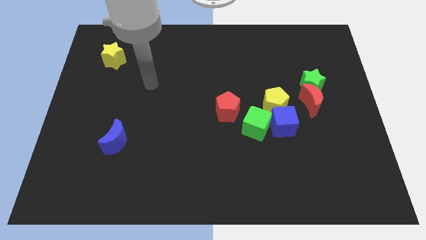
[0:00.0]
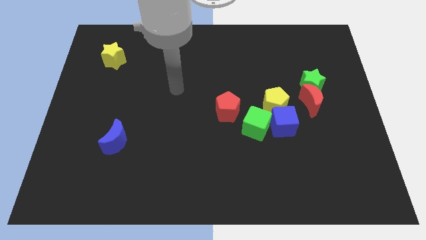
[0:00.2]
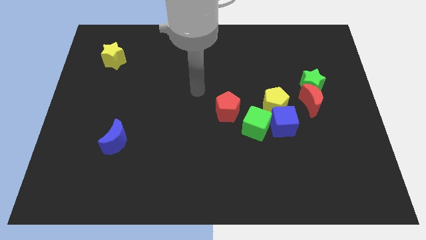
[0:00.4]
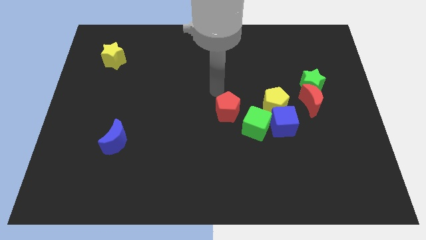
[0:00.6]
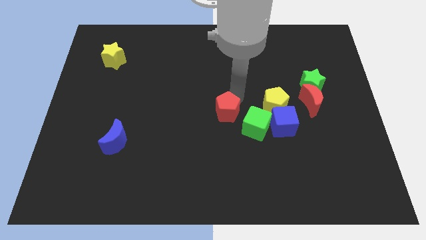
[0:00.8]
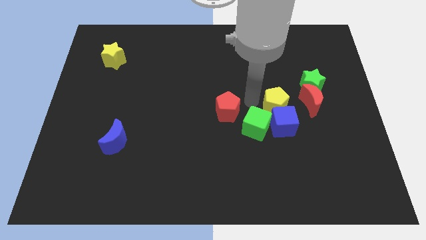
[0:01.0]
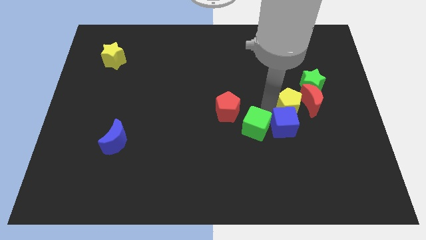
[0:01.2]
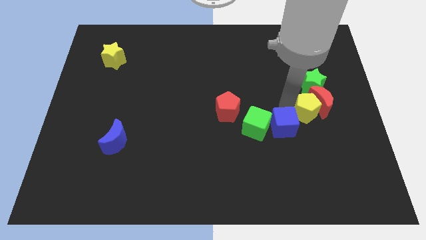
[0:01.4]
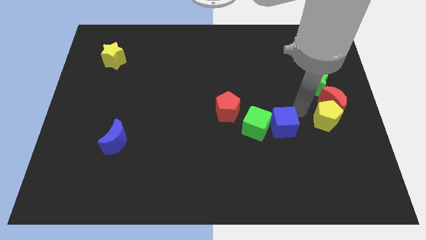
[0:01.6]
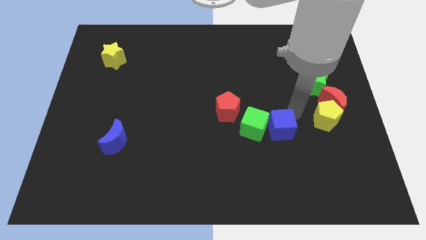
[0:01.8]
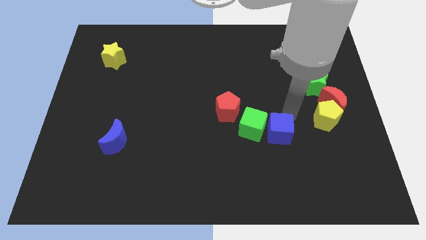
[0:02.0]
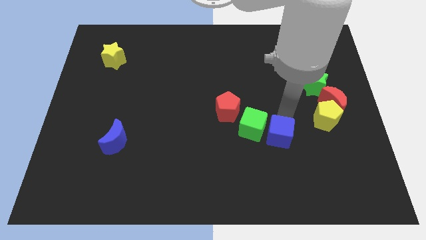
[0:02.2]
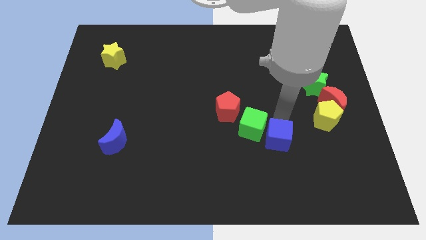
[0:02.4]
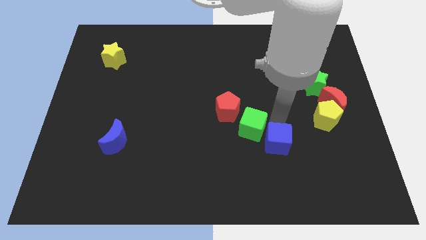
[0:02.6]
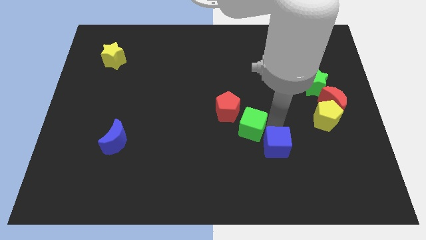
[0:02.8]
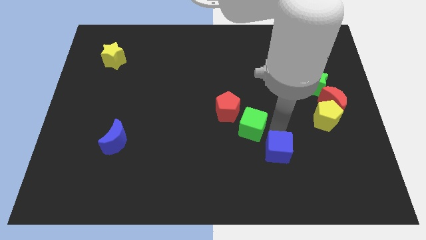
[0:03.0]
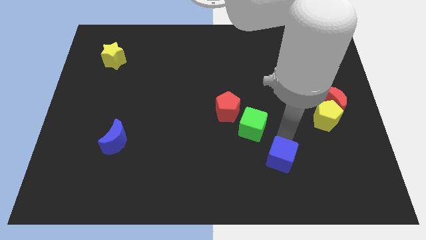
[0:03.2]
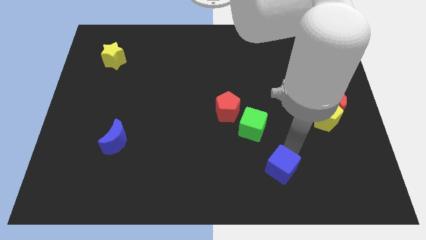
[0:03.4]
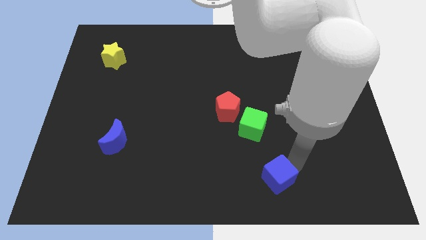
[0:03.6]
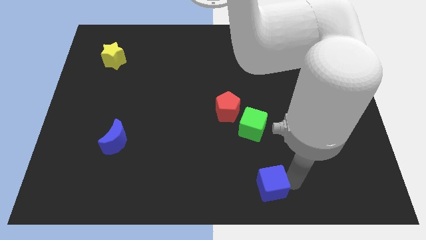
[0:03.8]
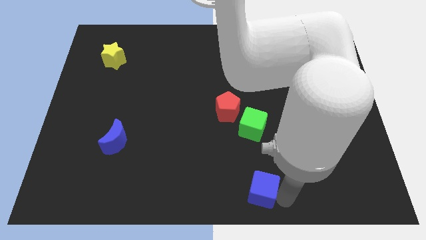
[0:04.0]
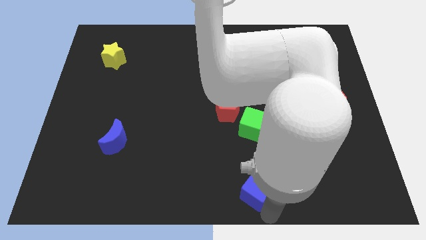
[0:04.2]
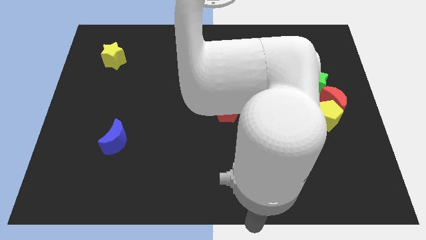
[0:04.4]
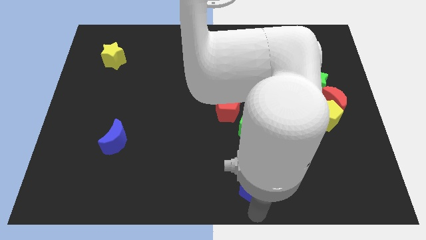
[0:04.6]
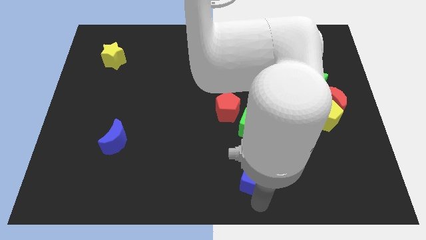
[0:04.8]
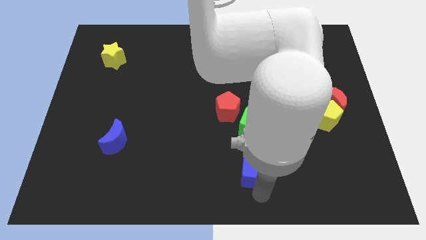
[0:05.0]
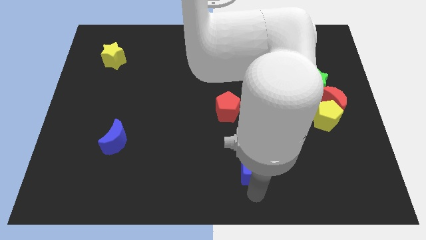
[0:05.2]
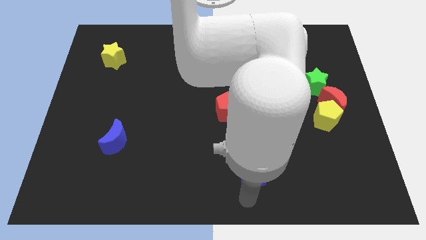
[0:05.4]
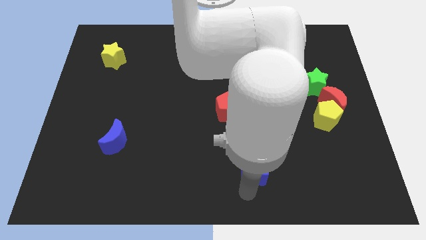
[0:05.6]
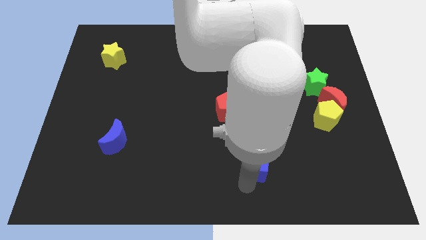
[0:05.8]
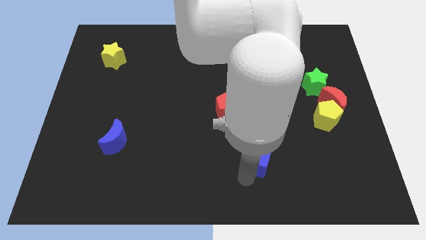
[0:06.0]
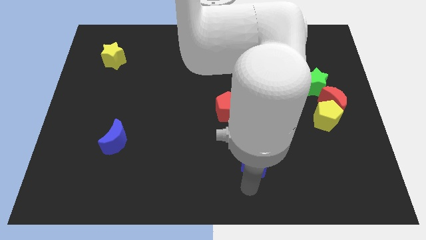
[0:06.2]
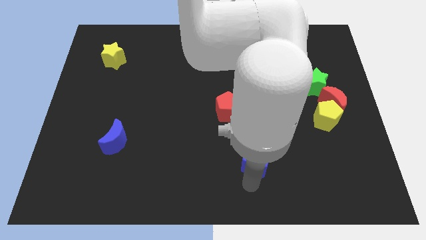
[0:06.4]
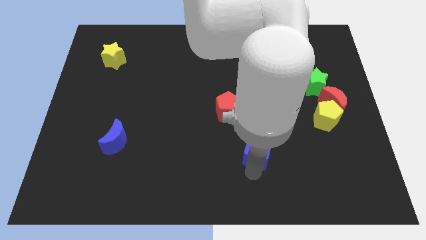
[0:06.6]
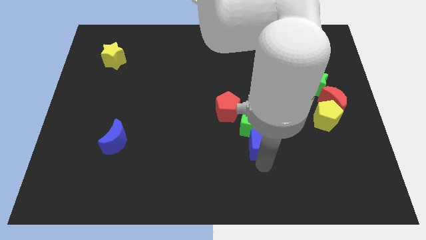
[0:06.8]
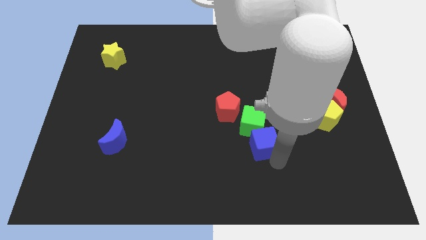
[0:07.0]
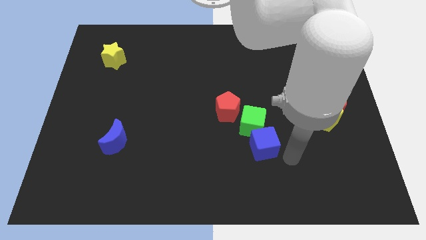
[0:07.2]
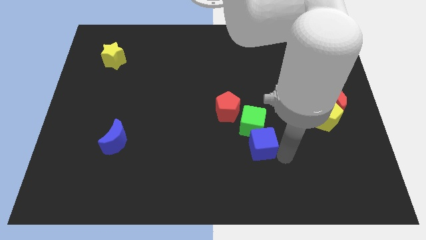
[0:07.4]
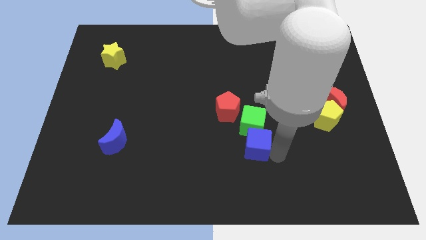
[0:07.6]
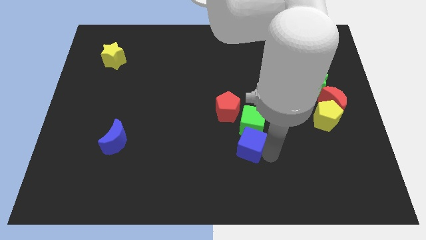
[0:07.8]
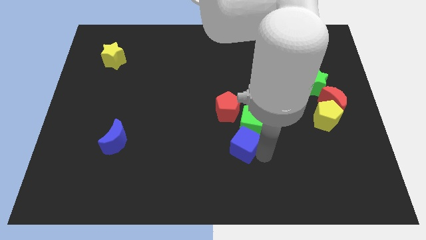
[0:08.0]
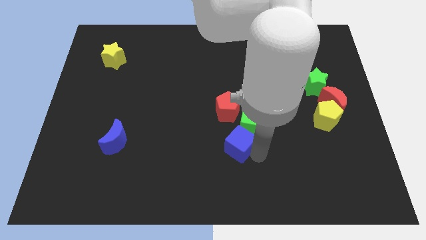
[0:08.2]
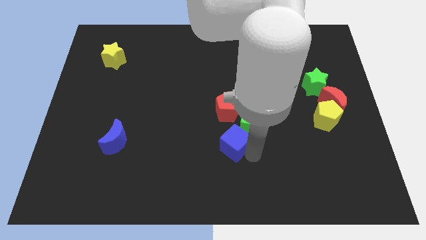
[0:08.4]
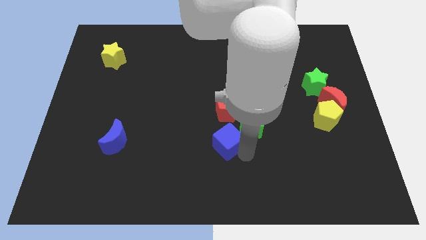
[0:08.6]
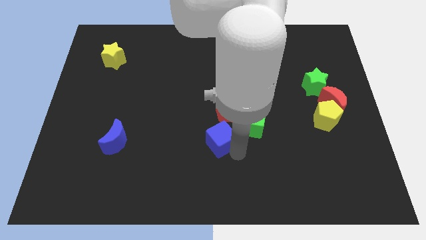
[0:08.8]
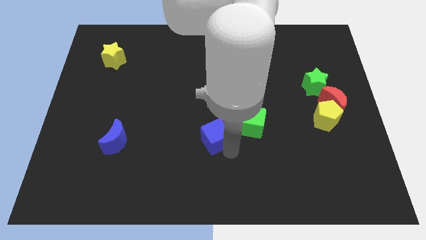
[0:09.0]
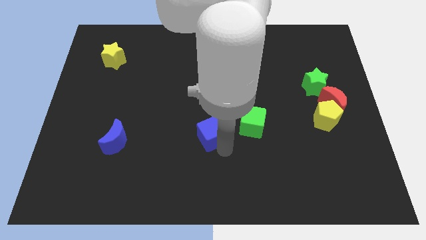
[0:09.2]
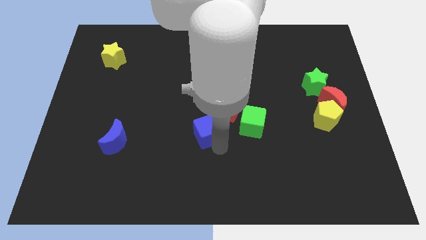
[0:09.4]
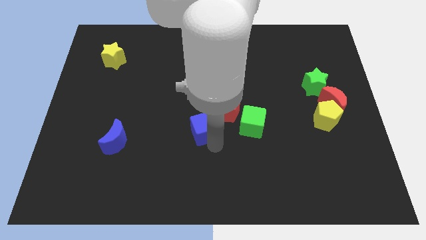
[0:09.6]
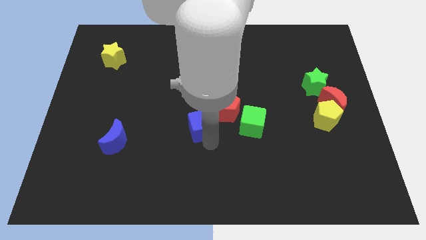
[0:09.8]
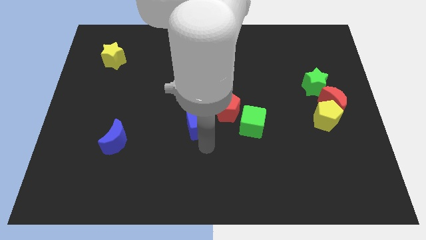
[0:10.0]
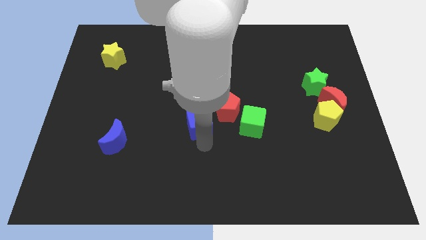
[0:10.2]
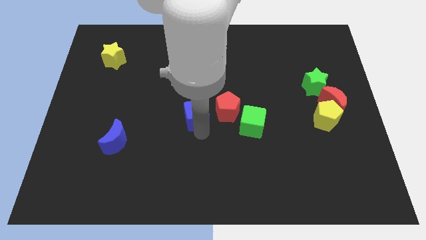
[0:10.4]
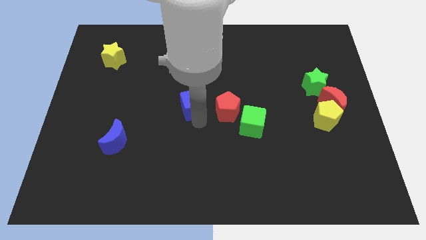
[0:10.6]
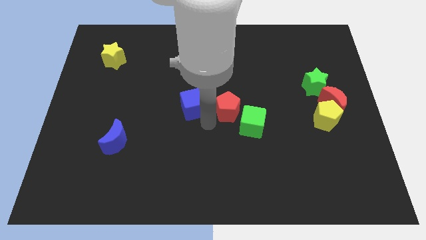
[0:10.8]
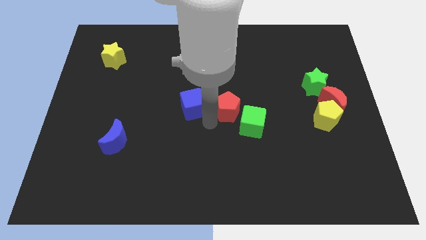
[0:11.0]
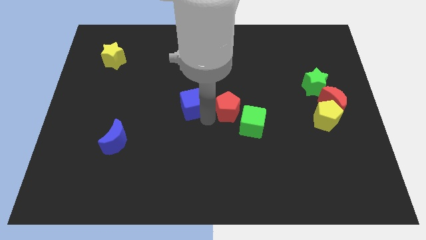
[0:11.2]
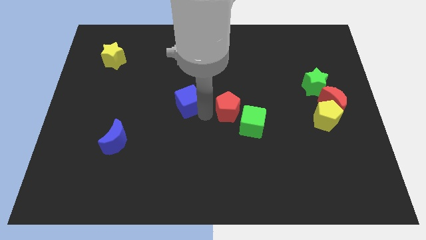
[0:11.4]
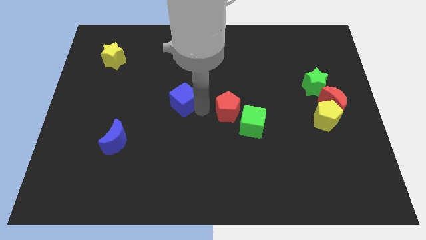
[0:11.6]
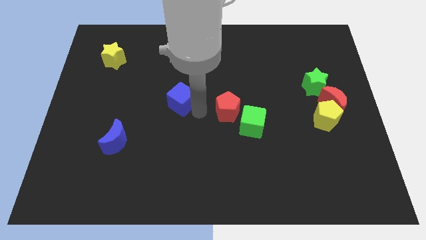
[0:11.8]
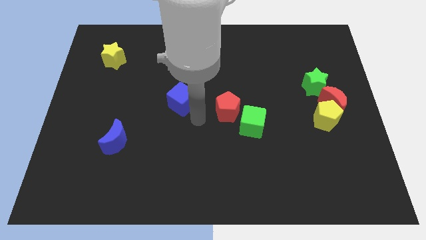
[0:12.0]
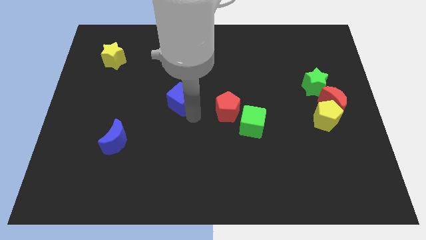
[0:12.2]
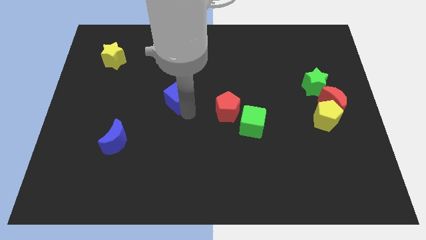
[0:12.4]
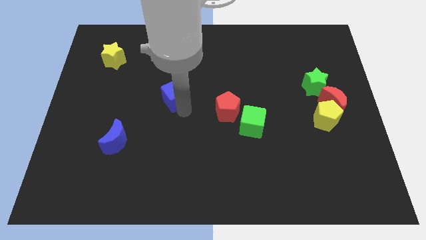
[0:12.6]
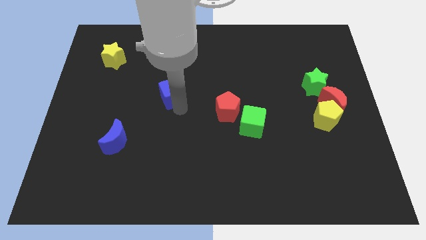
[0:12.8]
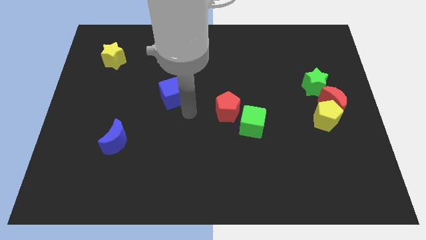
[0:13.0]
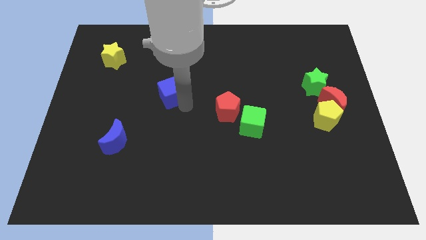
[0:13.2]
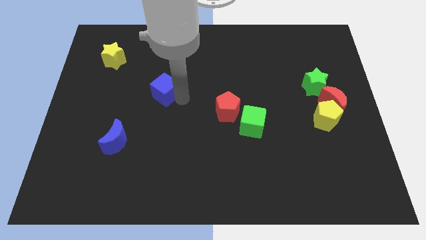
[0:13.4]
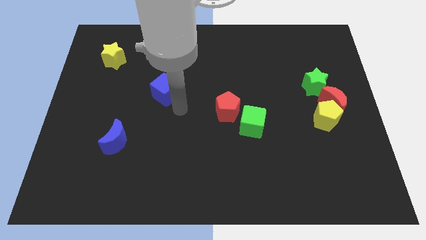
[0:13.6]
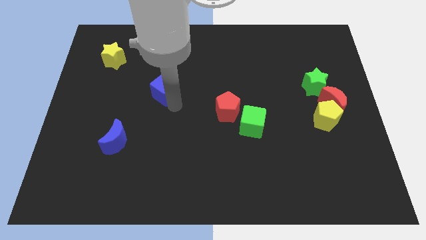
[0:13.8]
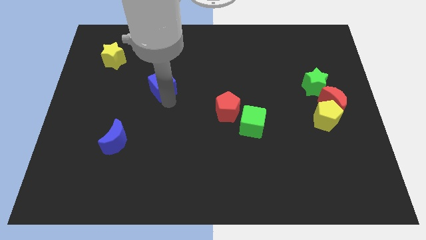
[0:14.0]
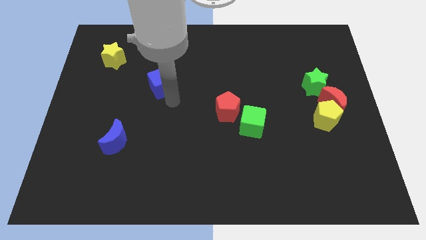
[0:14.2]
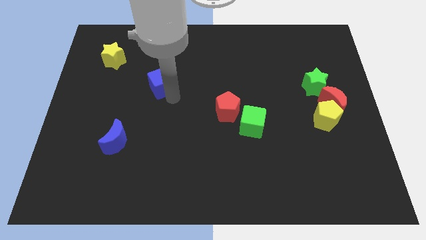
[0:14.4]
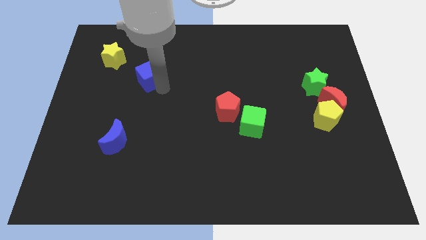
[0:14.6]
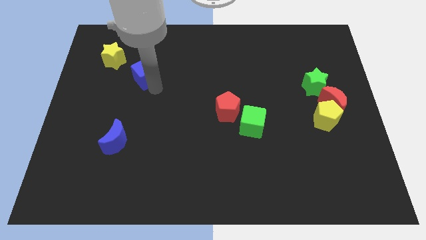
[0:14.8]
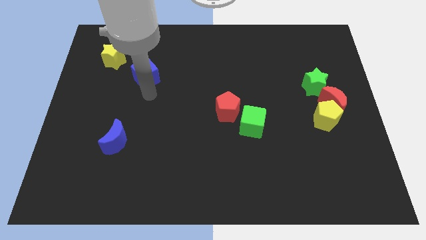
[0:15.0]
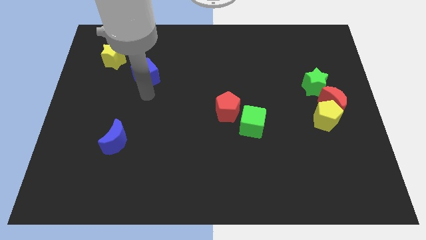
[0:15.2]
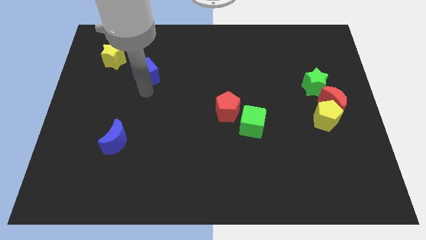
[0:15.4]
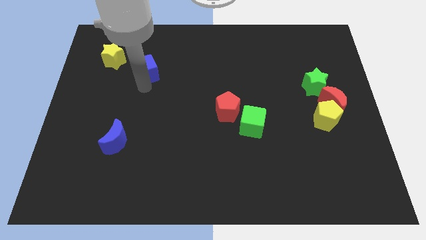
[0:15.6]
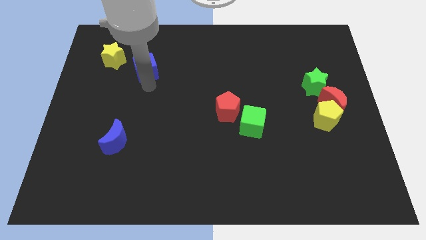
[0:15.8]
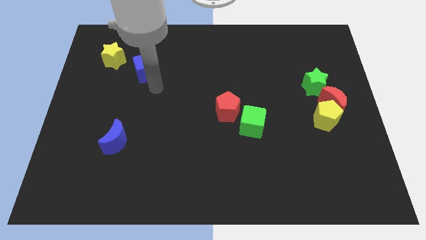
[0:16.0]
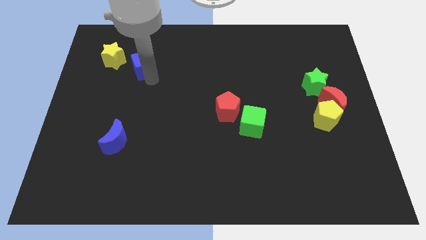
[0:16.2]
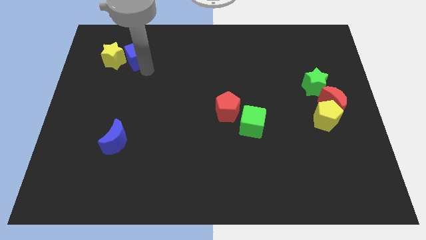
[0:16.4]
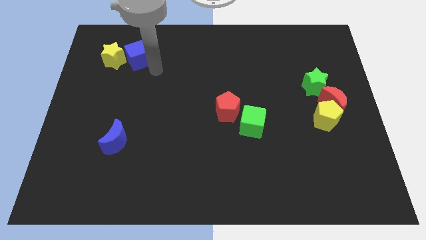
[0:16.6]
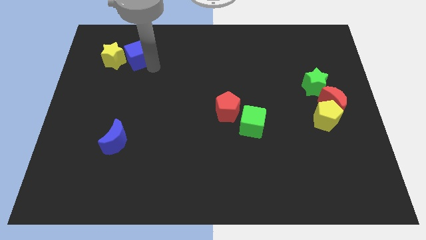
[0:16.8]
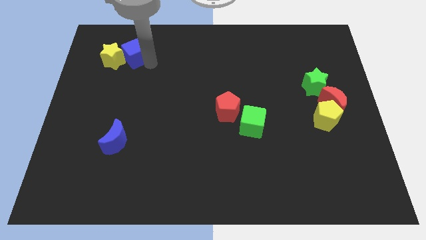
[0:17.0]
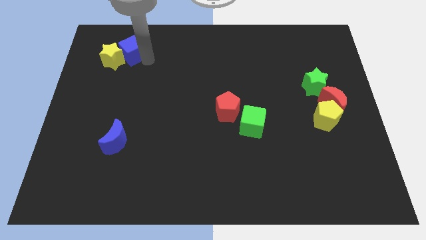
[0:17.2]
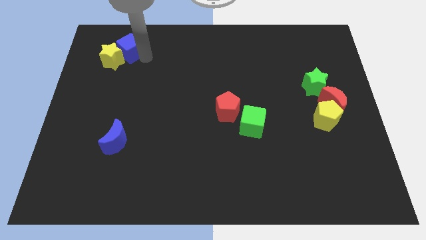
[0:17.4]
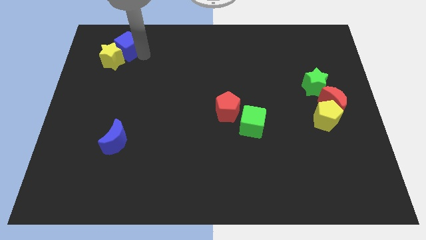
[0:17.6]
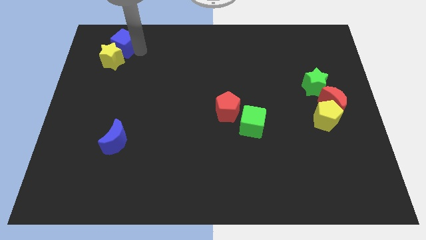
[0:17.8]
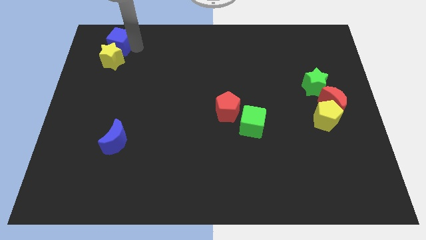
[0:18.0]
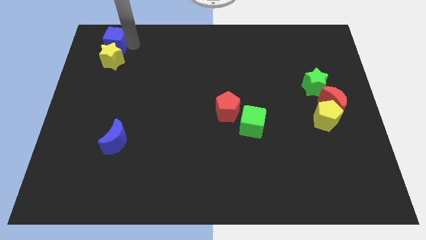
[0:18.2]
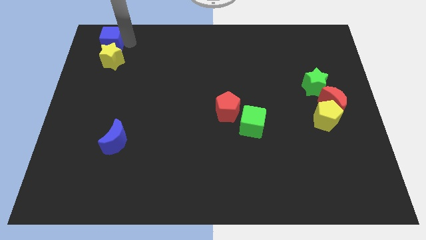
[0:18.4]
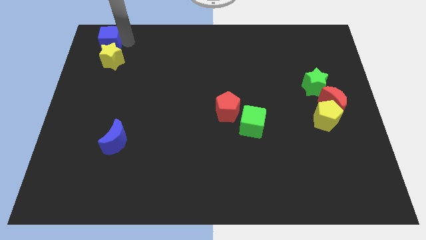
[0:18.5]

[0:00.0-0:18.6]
push the blue cube to the top left corner
